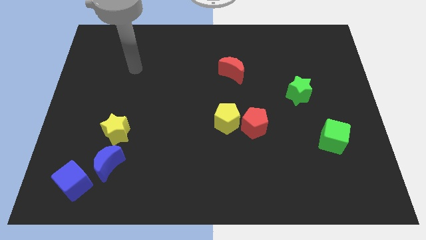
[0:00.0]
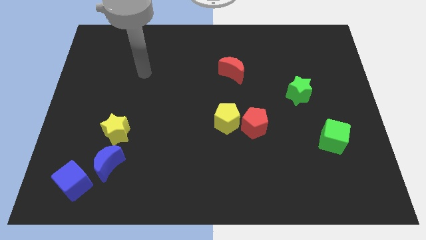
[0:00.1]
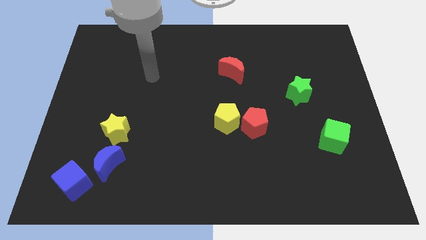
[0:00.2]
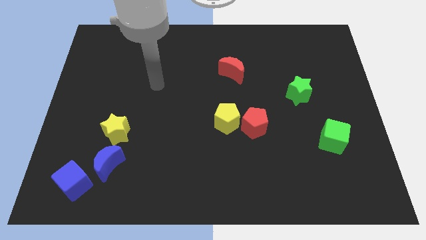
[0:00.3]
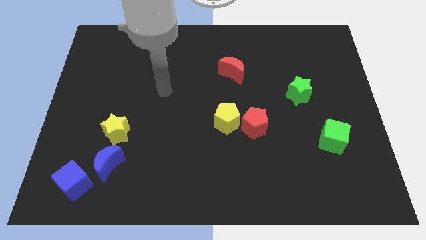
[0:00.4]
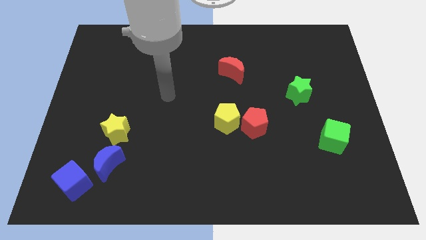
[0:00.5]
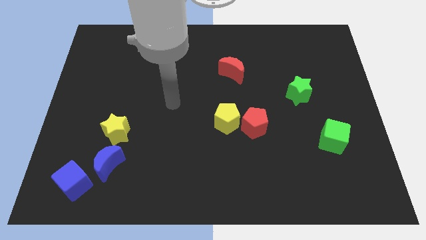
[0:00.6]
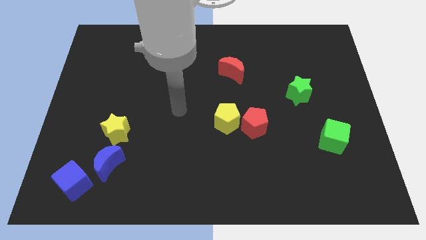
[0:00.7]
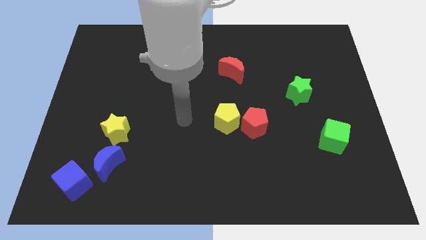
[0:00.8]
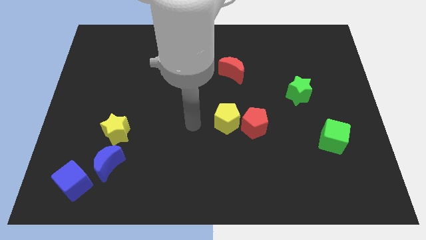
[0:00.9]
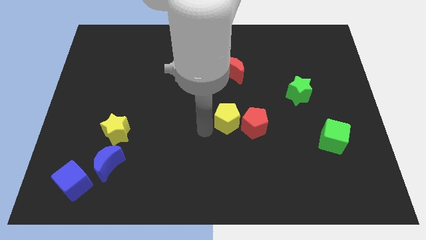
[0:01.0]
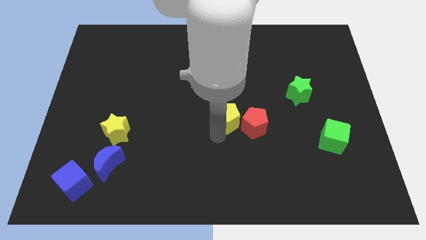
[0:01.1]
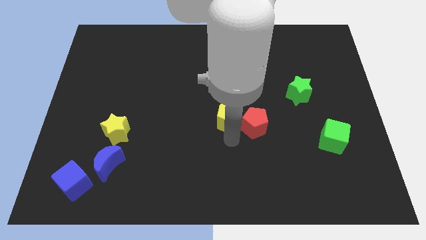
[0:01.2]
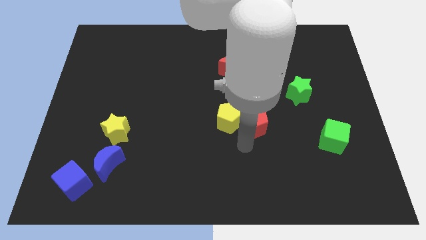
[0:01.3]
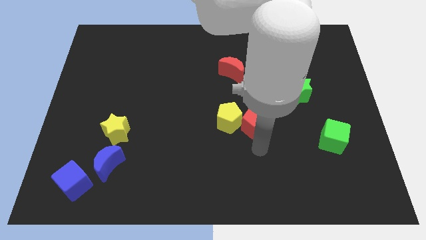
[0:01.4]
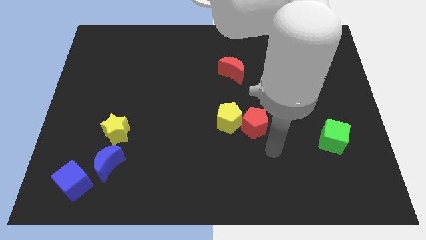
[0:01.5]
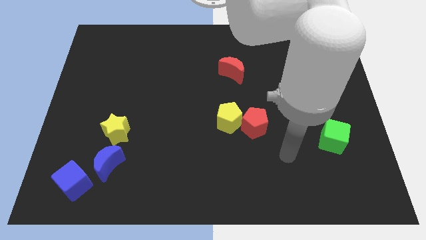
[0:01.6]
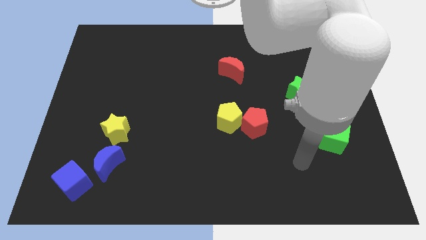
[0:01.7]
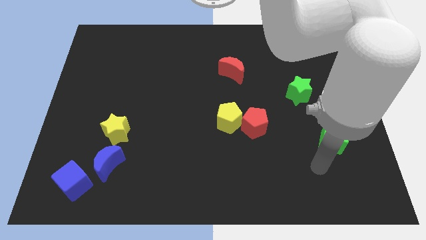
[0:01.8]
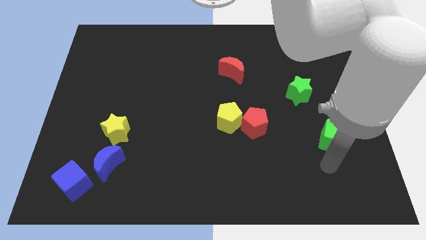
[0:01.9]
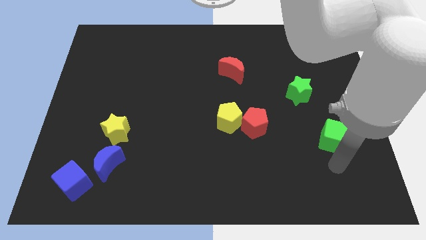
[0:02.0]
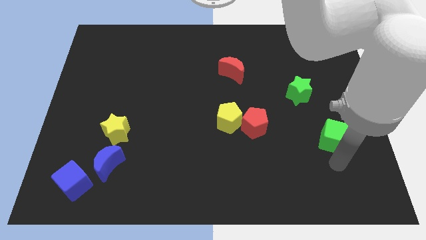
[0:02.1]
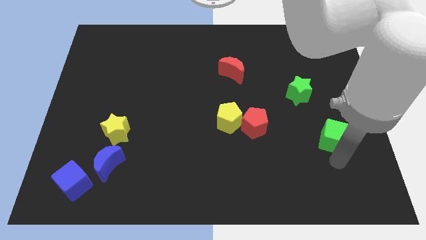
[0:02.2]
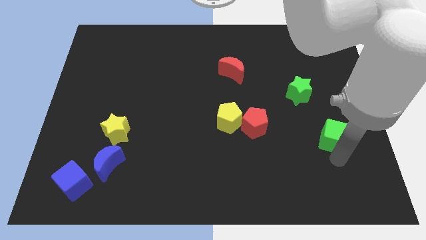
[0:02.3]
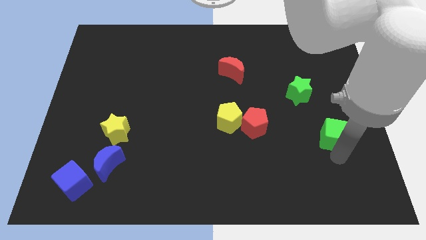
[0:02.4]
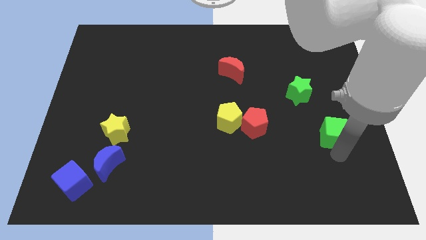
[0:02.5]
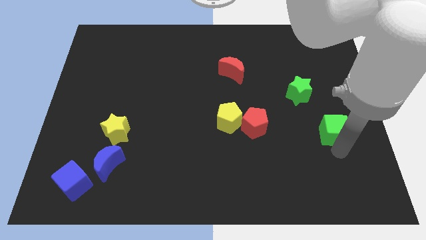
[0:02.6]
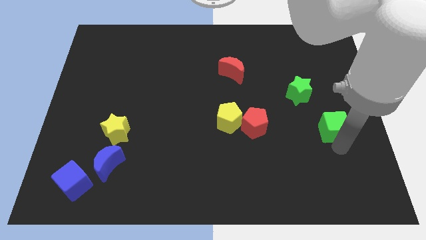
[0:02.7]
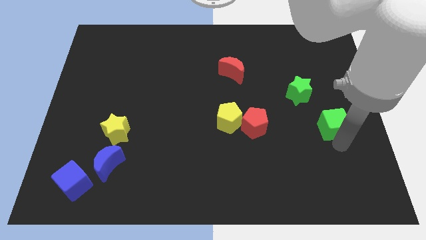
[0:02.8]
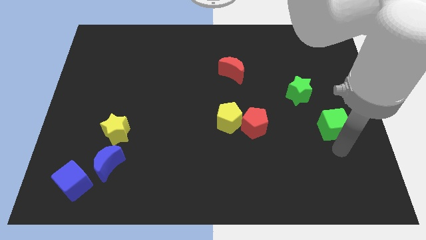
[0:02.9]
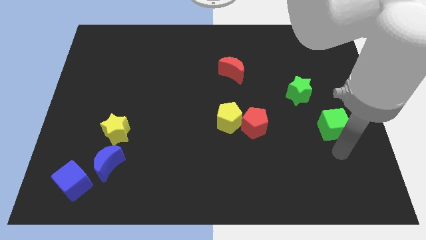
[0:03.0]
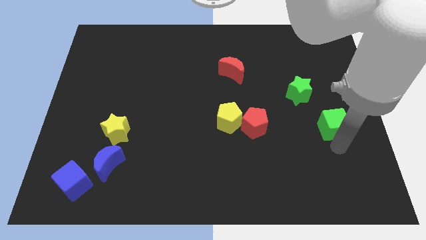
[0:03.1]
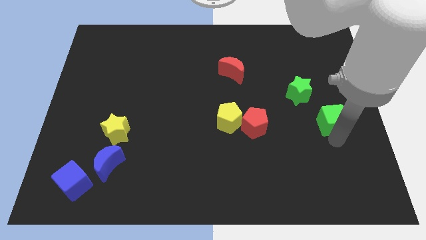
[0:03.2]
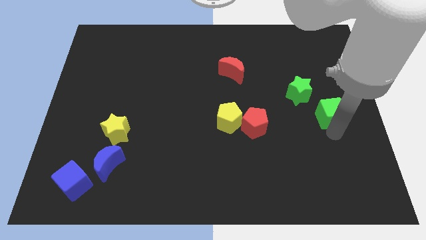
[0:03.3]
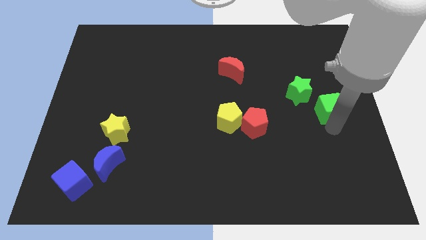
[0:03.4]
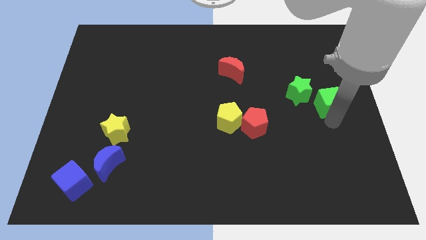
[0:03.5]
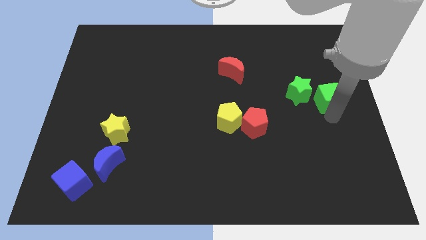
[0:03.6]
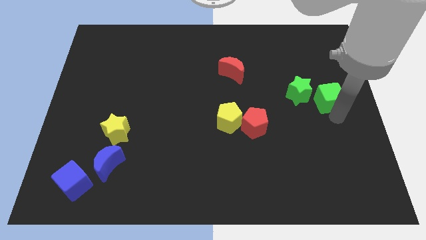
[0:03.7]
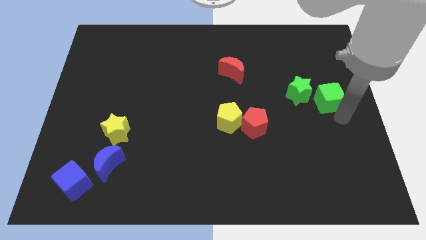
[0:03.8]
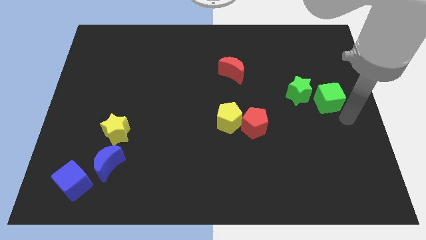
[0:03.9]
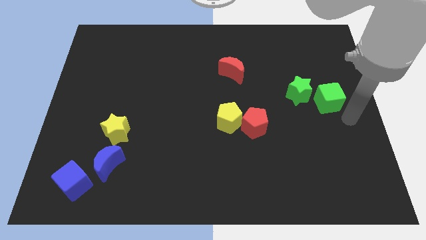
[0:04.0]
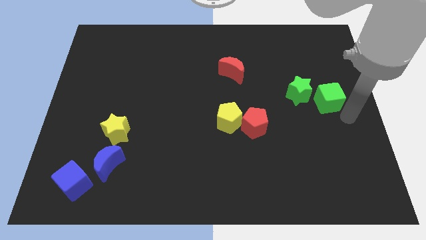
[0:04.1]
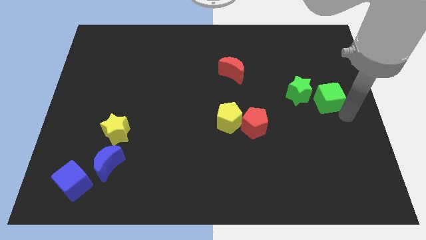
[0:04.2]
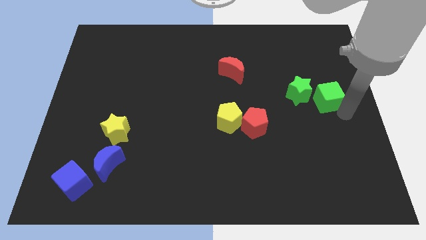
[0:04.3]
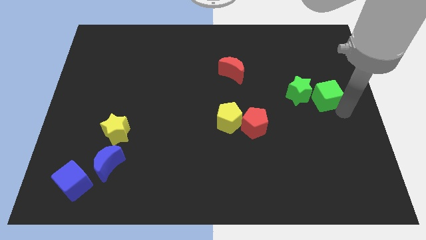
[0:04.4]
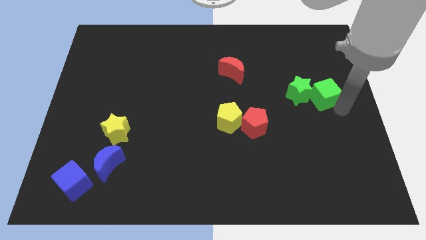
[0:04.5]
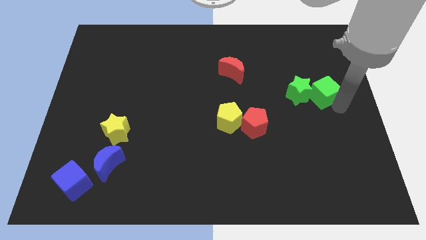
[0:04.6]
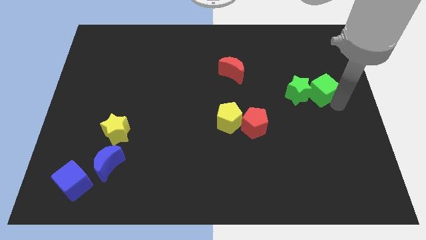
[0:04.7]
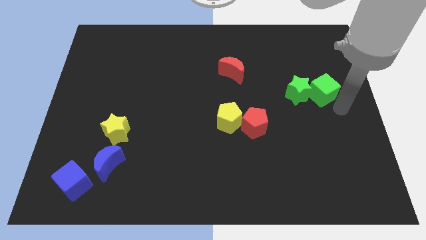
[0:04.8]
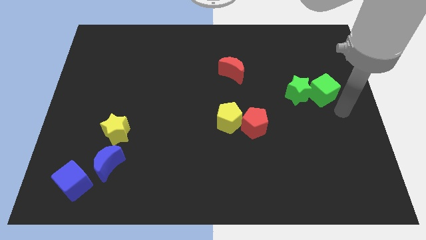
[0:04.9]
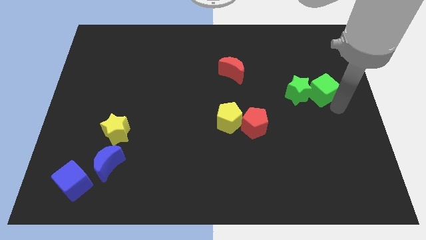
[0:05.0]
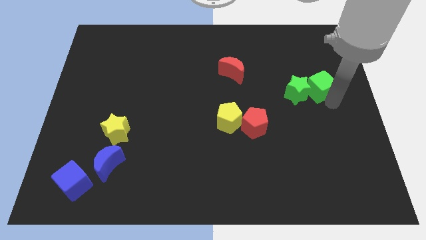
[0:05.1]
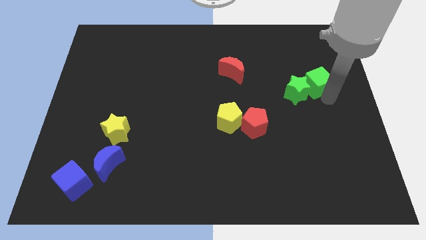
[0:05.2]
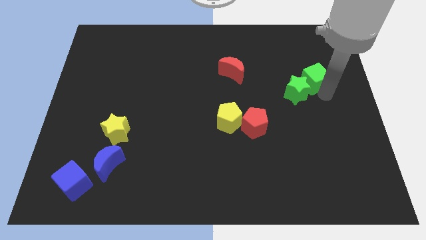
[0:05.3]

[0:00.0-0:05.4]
push the green cube to the top of the green star

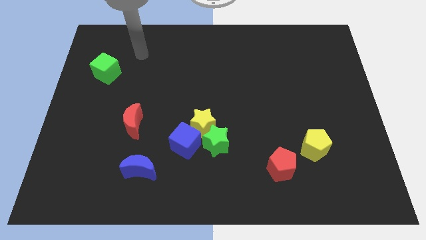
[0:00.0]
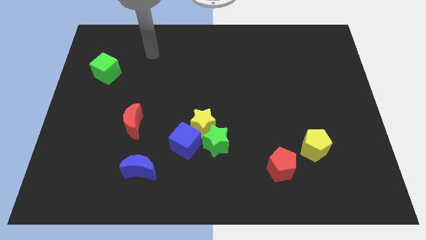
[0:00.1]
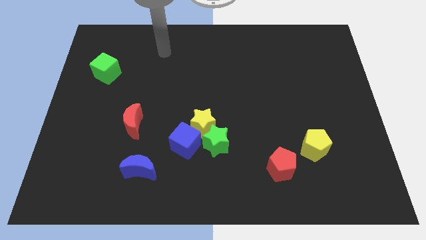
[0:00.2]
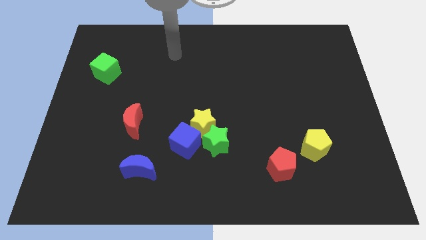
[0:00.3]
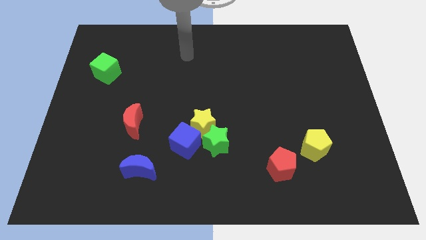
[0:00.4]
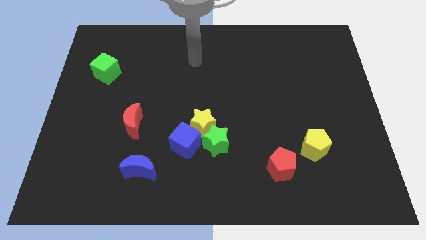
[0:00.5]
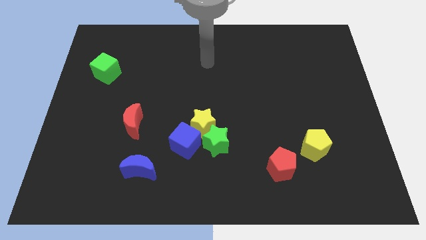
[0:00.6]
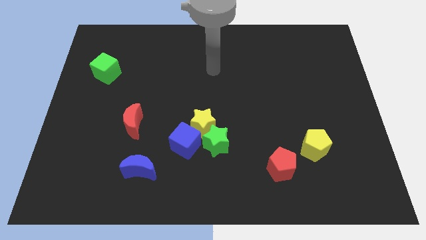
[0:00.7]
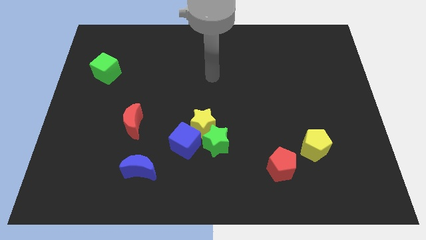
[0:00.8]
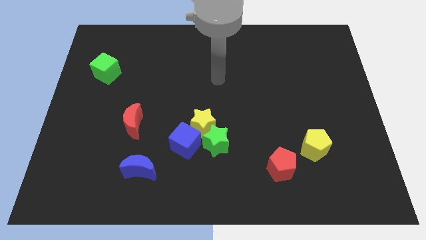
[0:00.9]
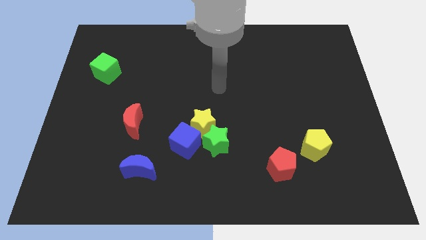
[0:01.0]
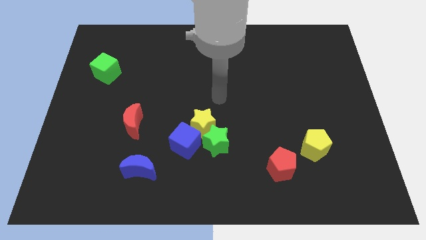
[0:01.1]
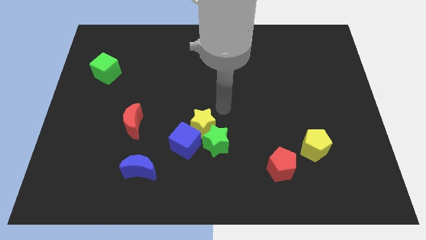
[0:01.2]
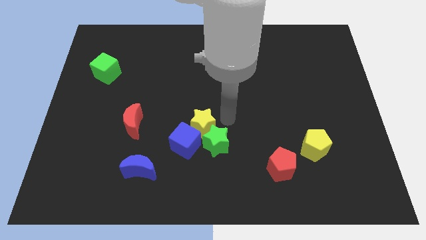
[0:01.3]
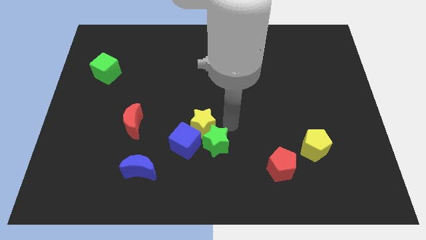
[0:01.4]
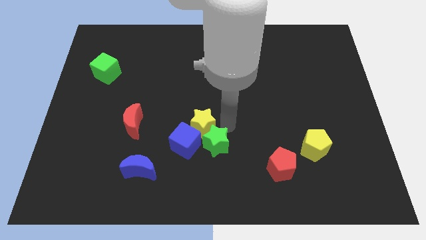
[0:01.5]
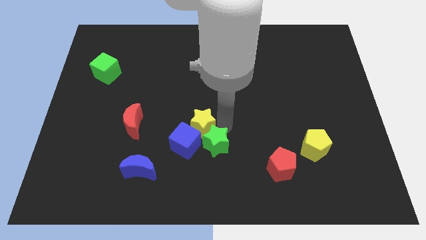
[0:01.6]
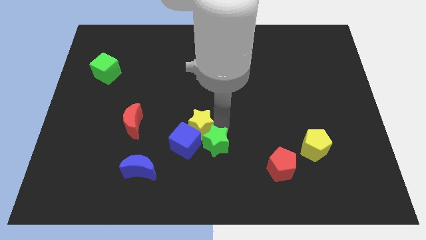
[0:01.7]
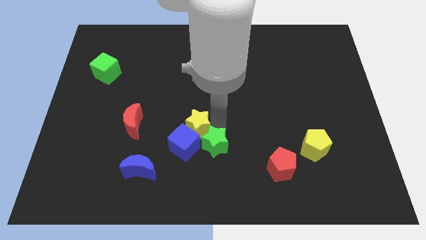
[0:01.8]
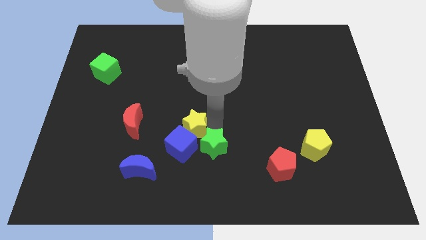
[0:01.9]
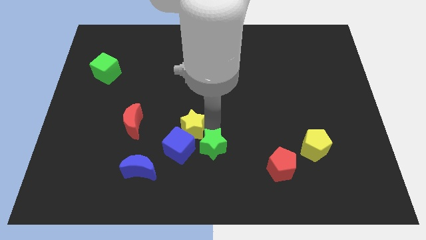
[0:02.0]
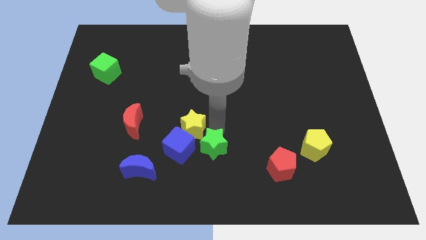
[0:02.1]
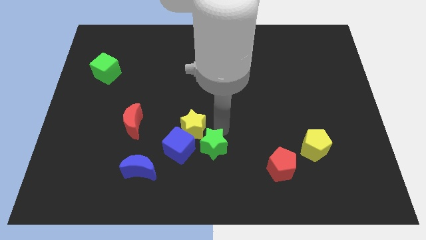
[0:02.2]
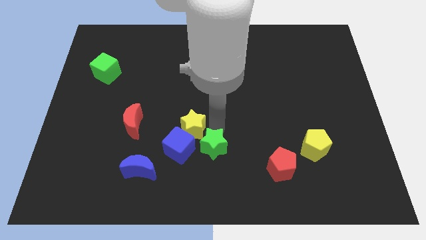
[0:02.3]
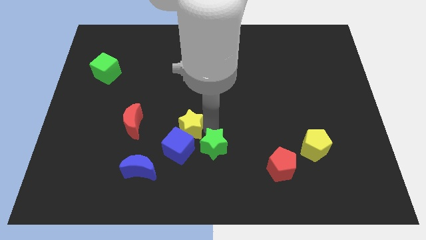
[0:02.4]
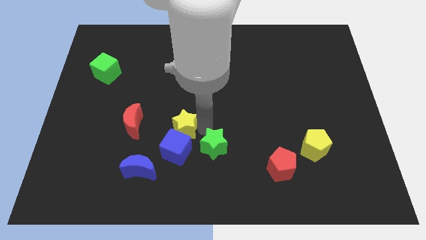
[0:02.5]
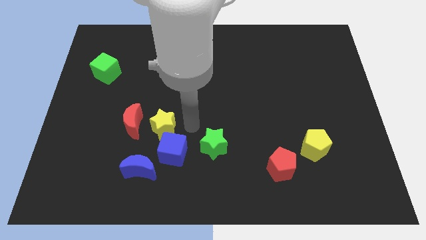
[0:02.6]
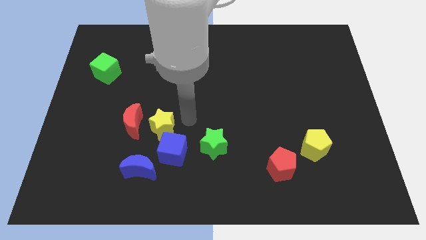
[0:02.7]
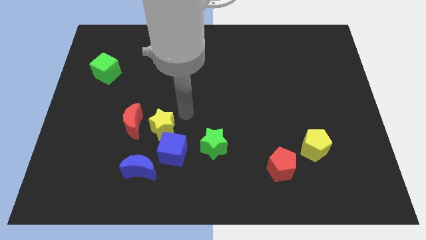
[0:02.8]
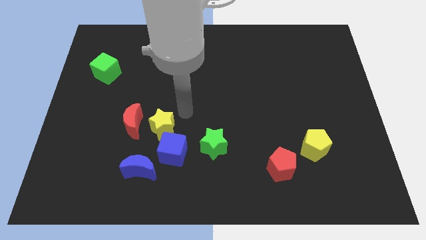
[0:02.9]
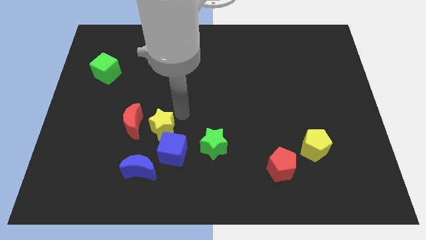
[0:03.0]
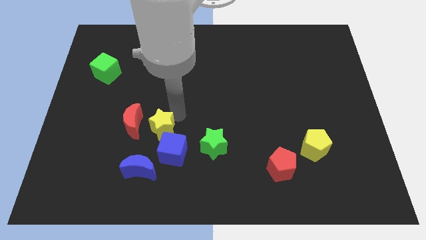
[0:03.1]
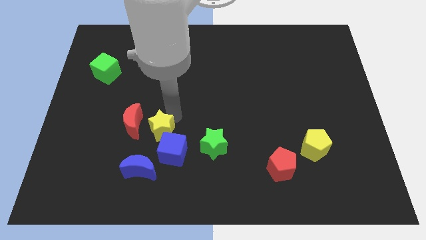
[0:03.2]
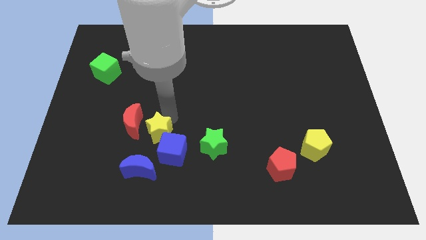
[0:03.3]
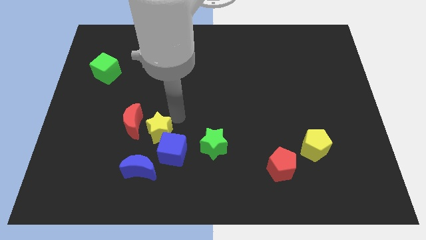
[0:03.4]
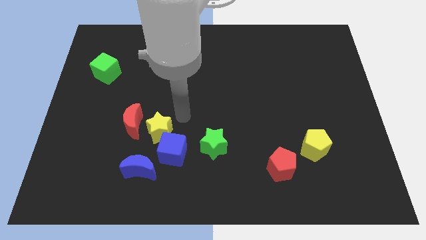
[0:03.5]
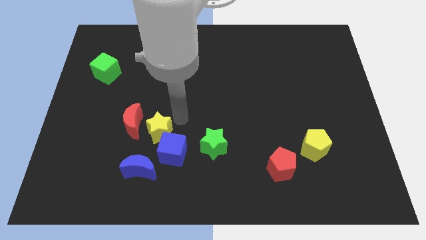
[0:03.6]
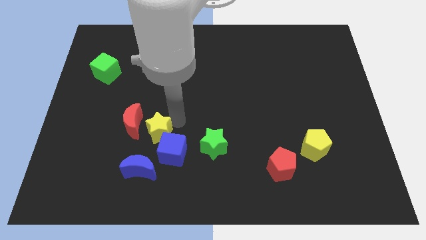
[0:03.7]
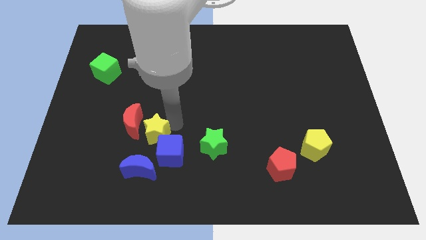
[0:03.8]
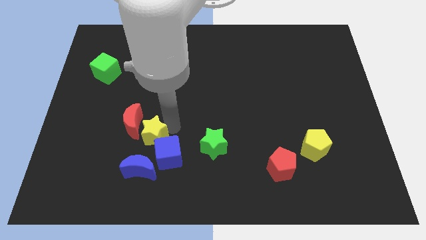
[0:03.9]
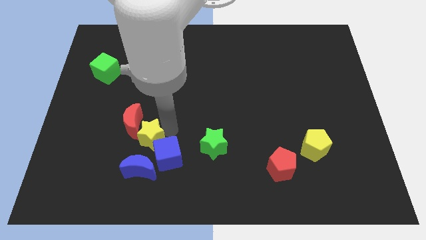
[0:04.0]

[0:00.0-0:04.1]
push the yellow star to the left side of the blue cube
